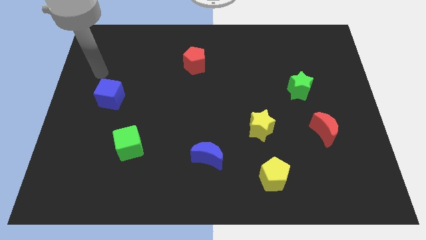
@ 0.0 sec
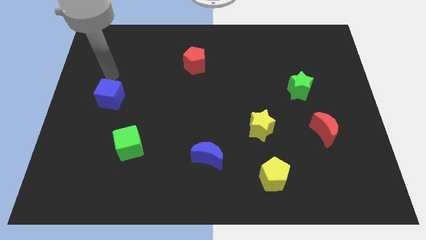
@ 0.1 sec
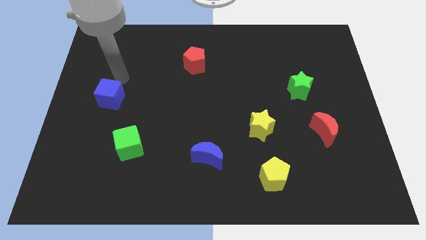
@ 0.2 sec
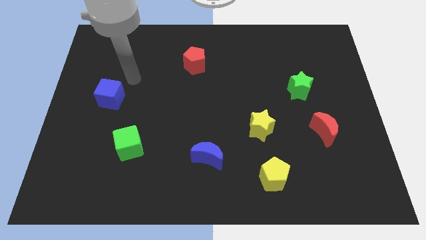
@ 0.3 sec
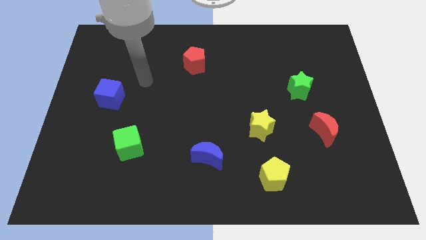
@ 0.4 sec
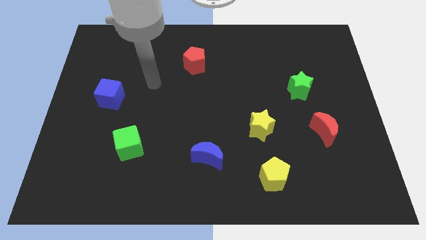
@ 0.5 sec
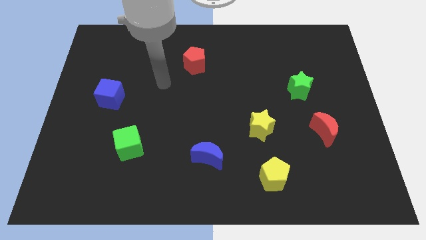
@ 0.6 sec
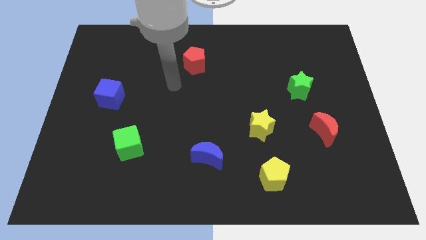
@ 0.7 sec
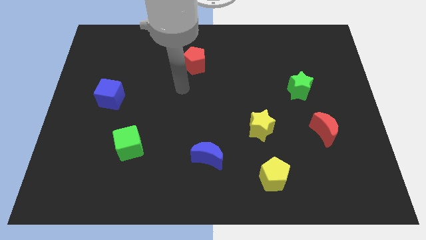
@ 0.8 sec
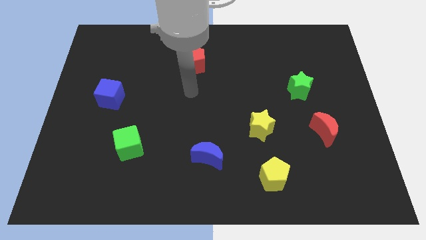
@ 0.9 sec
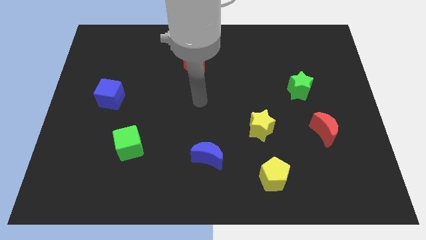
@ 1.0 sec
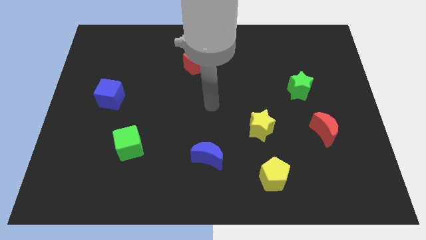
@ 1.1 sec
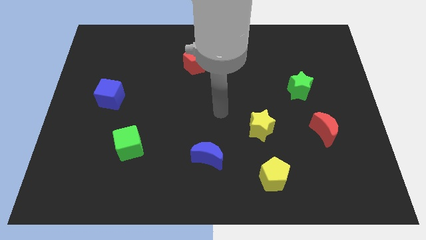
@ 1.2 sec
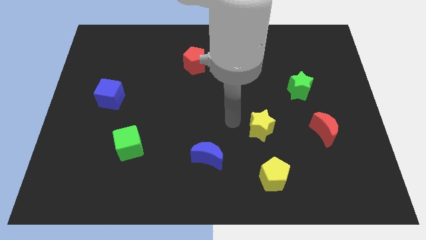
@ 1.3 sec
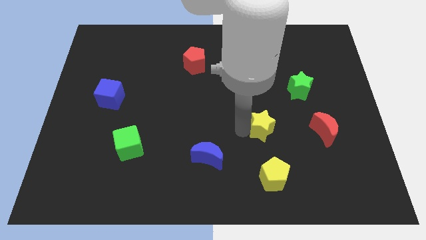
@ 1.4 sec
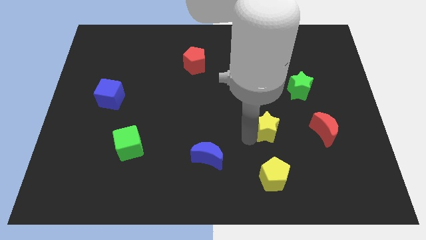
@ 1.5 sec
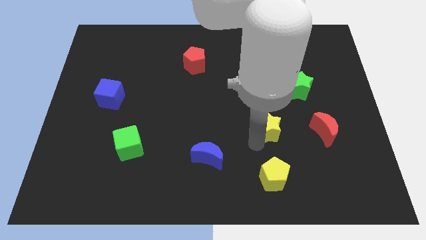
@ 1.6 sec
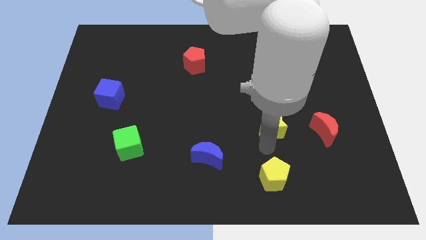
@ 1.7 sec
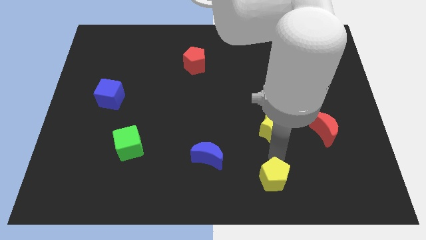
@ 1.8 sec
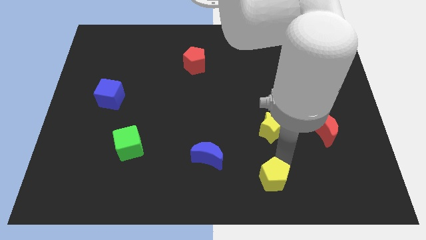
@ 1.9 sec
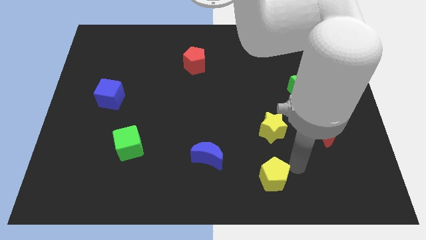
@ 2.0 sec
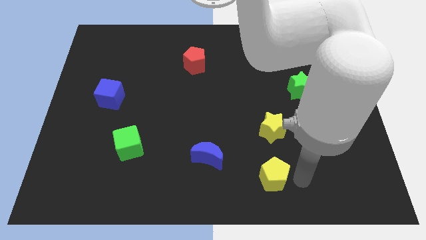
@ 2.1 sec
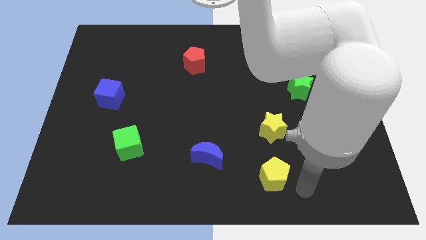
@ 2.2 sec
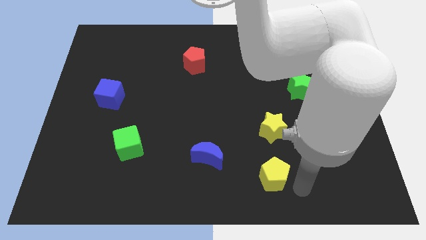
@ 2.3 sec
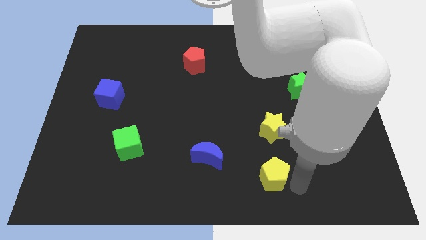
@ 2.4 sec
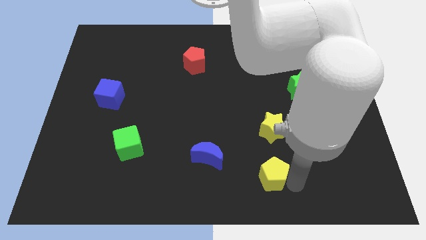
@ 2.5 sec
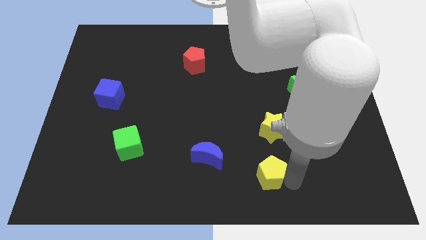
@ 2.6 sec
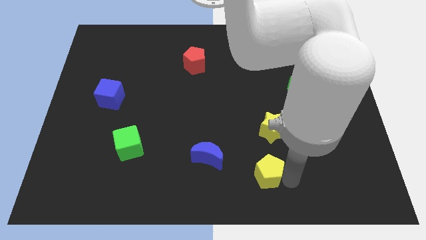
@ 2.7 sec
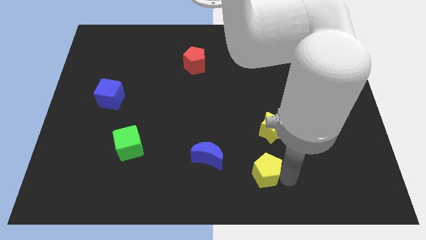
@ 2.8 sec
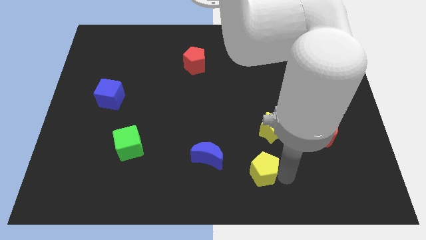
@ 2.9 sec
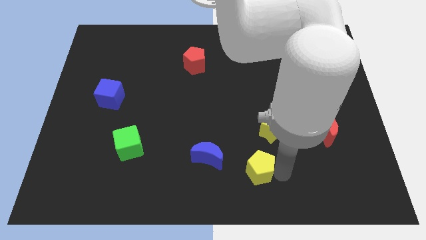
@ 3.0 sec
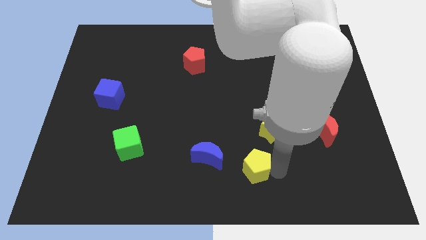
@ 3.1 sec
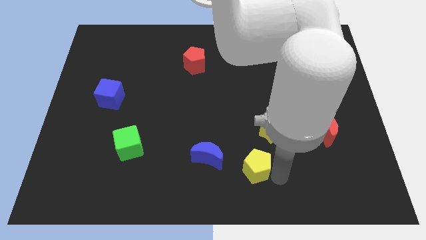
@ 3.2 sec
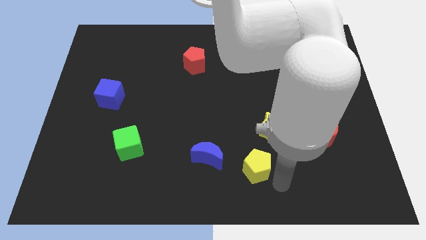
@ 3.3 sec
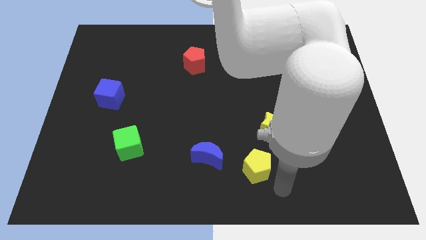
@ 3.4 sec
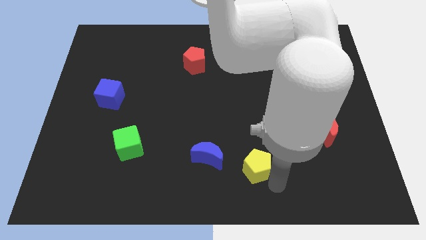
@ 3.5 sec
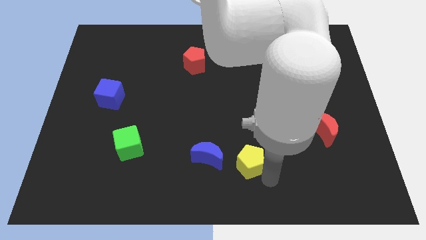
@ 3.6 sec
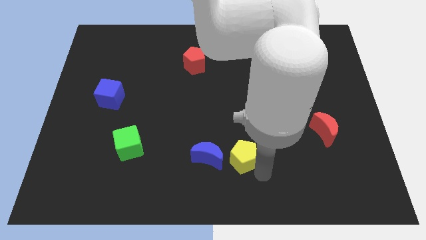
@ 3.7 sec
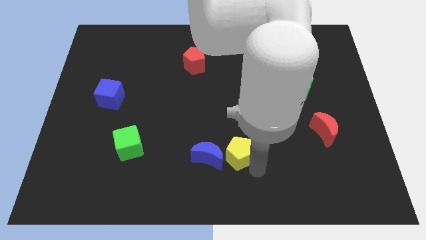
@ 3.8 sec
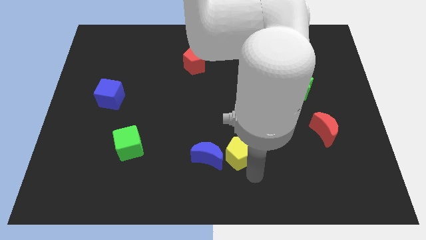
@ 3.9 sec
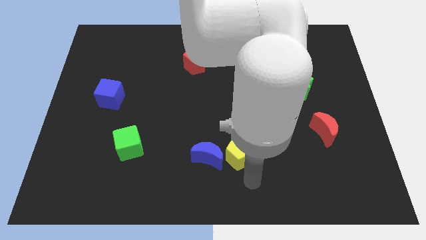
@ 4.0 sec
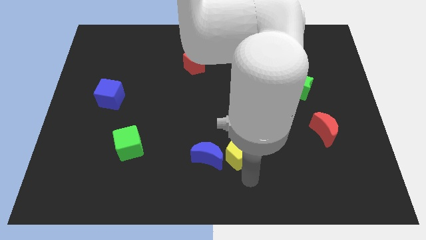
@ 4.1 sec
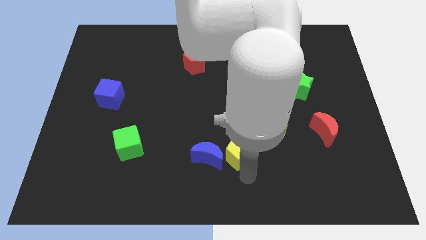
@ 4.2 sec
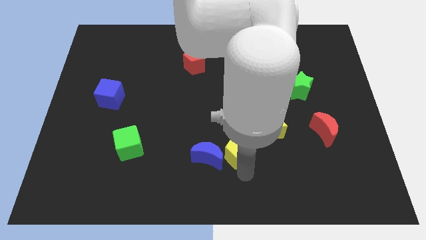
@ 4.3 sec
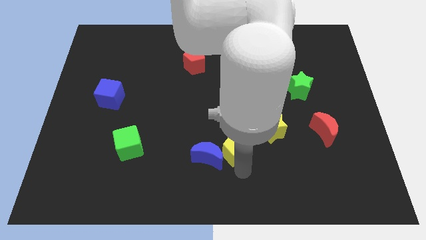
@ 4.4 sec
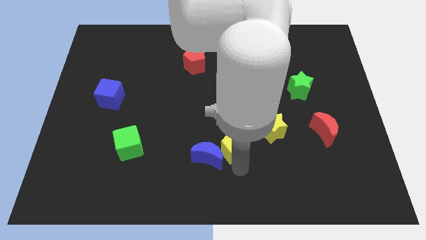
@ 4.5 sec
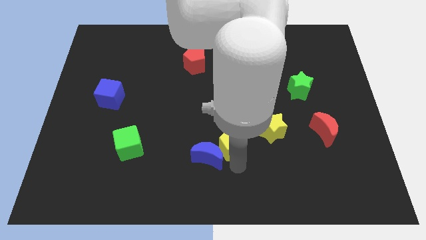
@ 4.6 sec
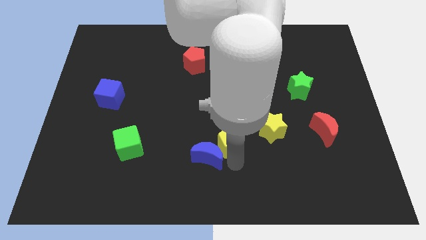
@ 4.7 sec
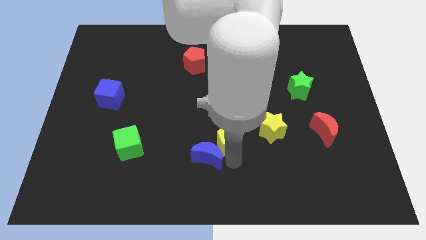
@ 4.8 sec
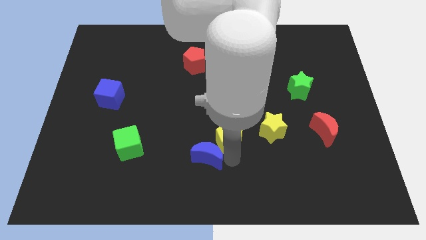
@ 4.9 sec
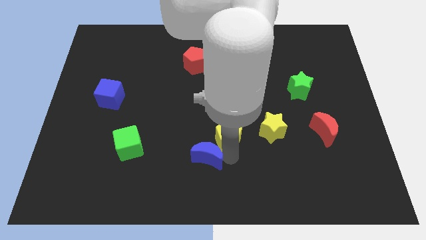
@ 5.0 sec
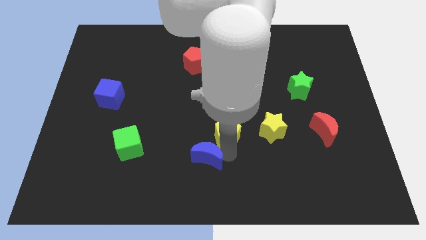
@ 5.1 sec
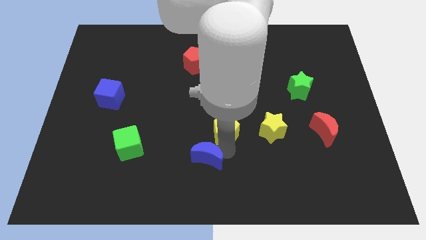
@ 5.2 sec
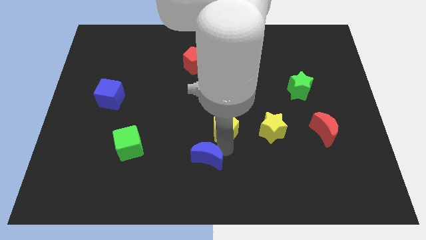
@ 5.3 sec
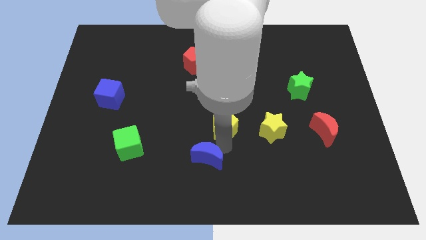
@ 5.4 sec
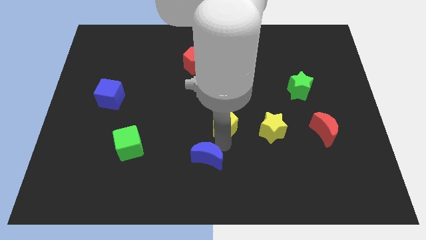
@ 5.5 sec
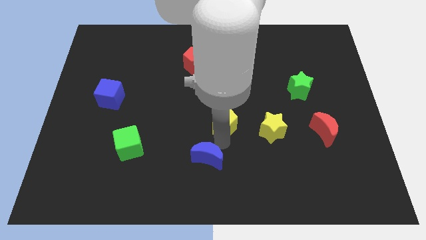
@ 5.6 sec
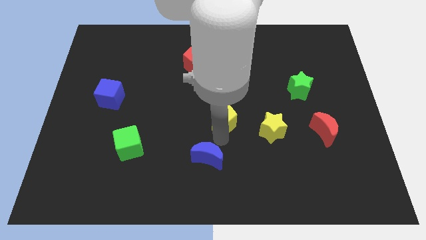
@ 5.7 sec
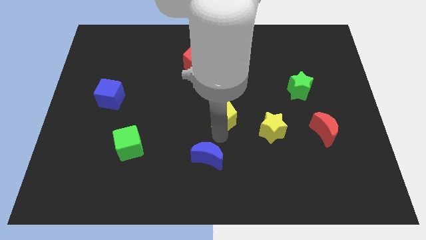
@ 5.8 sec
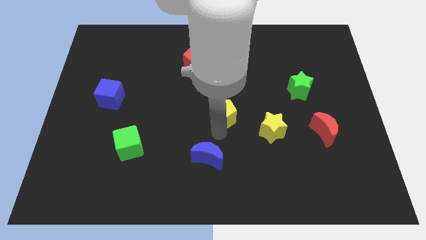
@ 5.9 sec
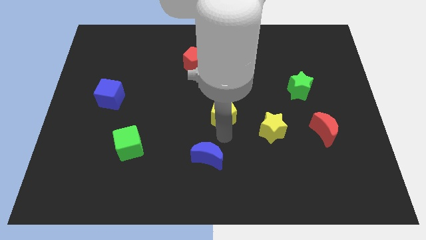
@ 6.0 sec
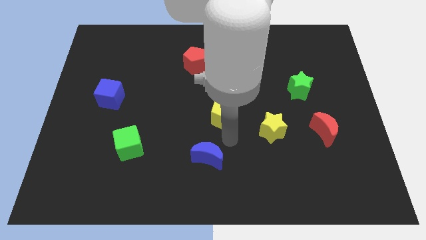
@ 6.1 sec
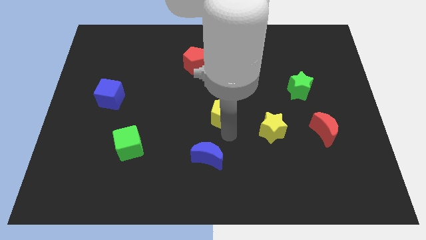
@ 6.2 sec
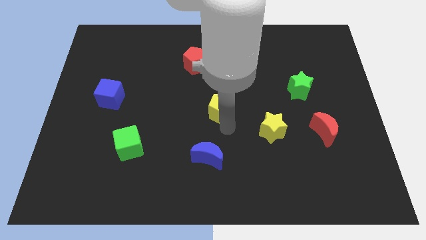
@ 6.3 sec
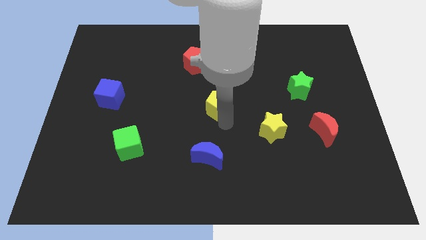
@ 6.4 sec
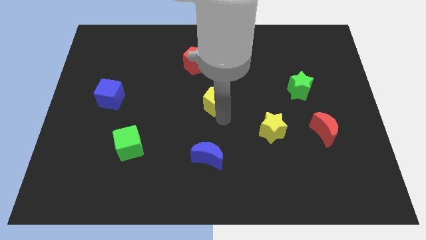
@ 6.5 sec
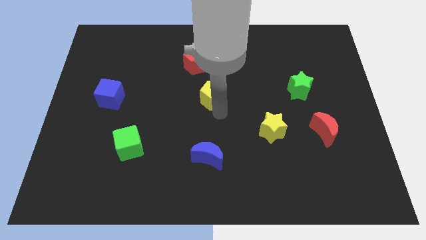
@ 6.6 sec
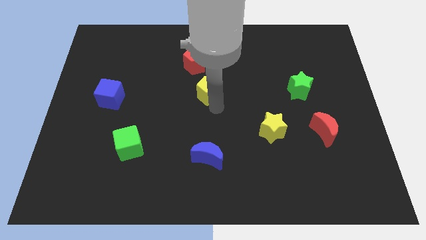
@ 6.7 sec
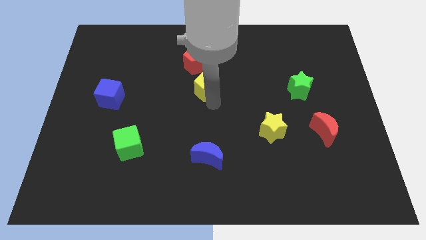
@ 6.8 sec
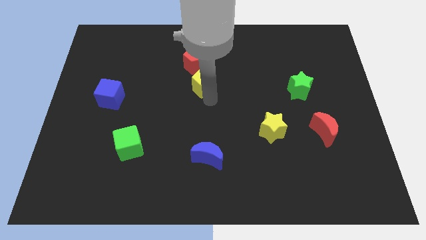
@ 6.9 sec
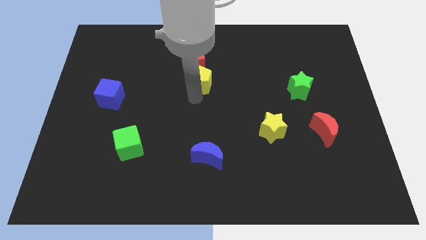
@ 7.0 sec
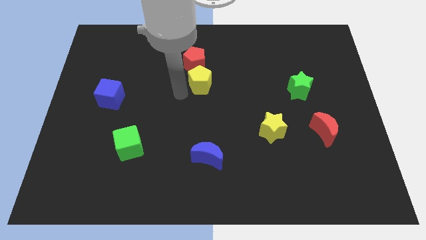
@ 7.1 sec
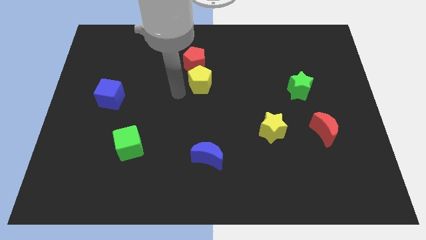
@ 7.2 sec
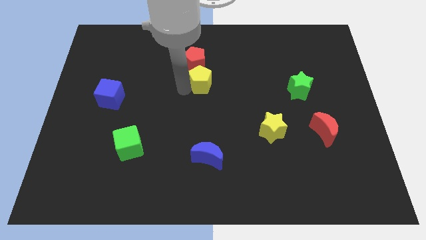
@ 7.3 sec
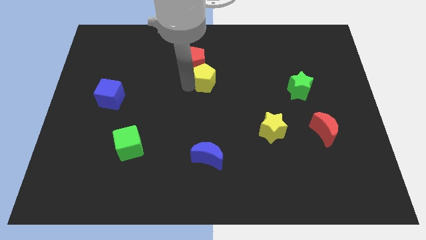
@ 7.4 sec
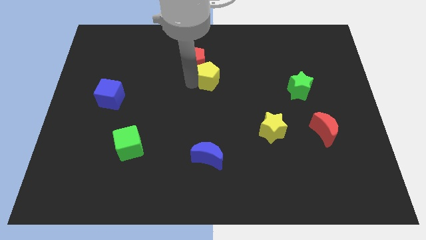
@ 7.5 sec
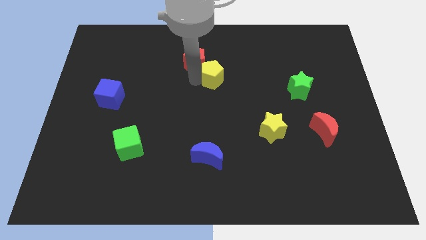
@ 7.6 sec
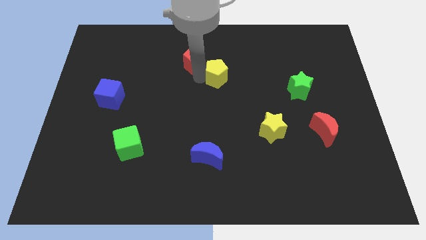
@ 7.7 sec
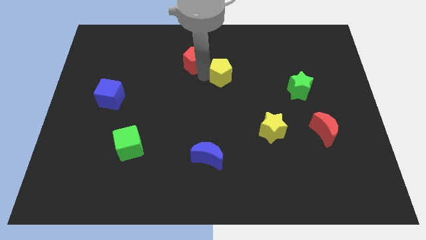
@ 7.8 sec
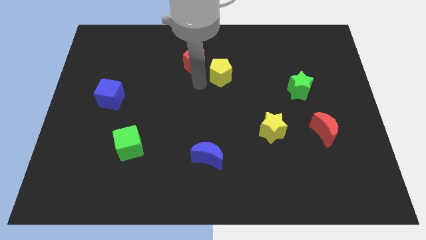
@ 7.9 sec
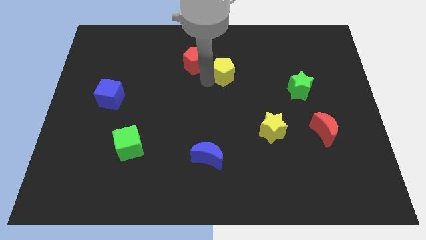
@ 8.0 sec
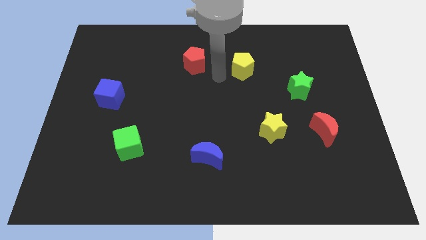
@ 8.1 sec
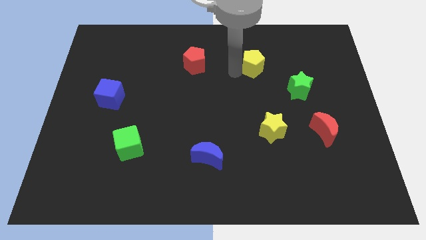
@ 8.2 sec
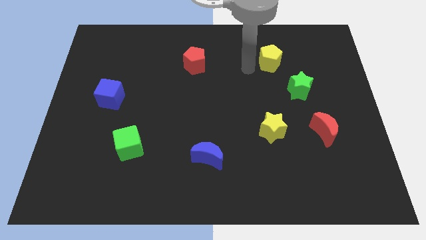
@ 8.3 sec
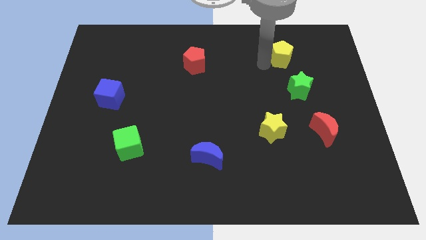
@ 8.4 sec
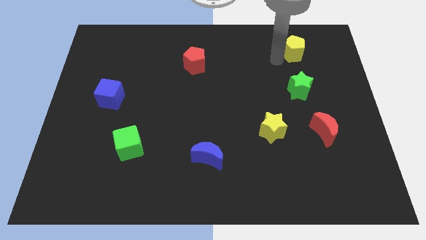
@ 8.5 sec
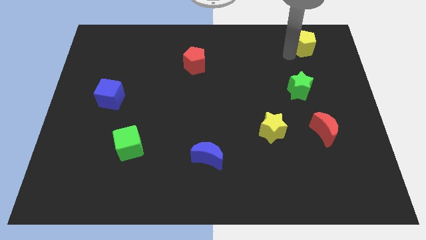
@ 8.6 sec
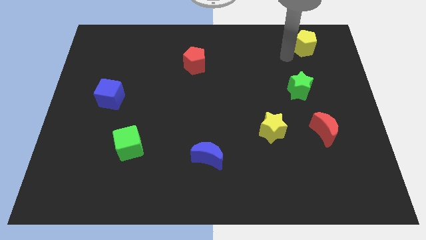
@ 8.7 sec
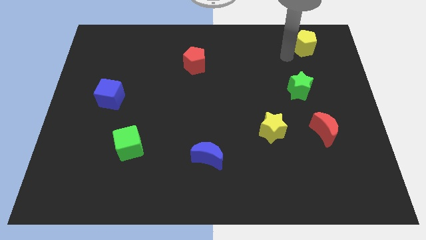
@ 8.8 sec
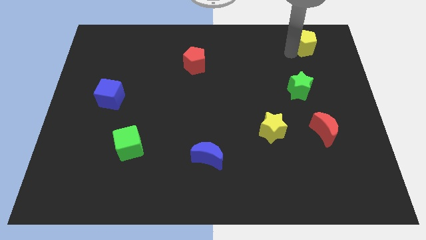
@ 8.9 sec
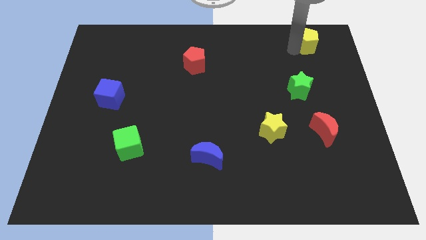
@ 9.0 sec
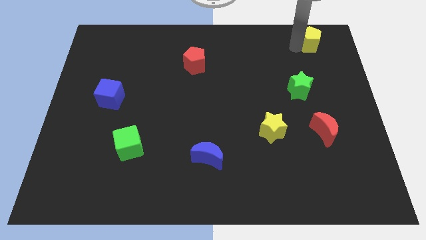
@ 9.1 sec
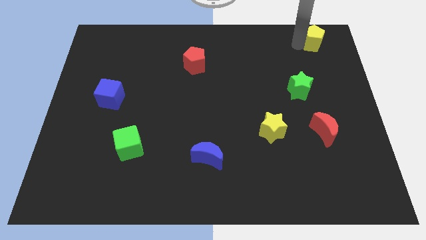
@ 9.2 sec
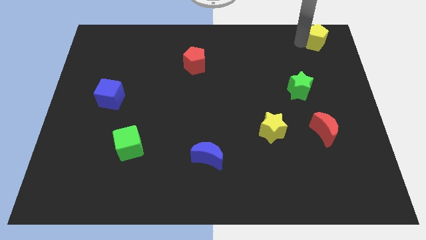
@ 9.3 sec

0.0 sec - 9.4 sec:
slide the yellow pentagon to the top right of the board
